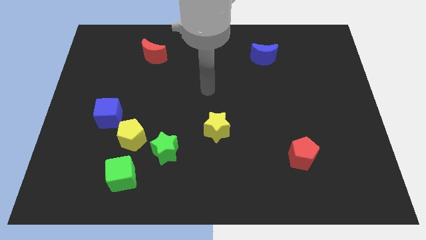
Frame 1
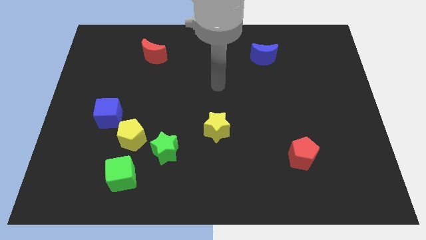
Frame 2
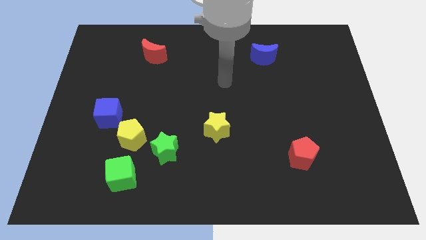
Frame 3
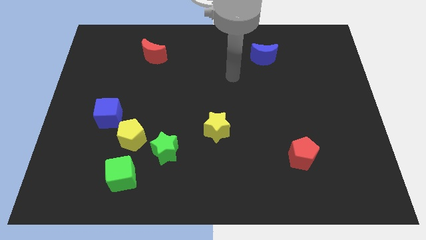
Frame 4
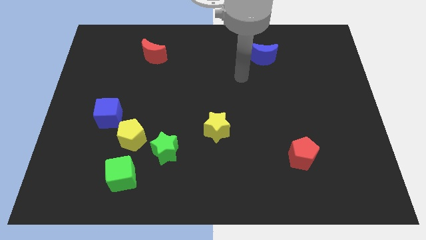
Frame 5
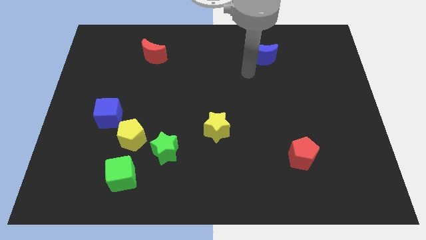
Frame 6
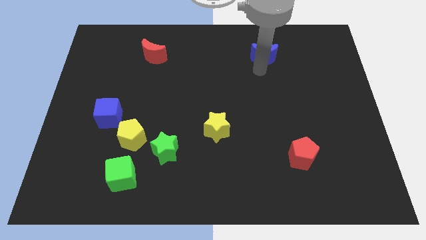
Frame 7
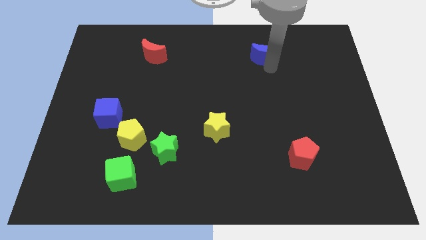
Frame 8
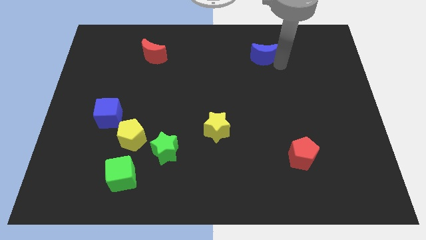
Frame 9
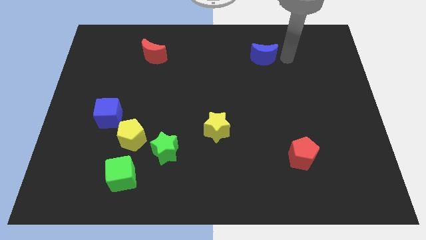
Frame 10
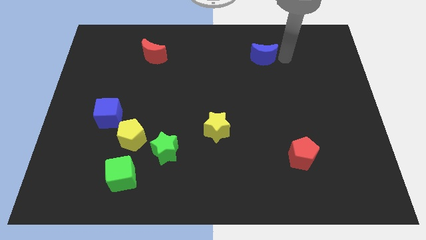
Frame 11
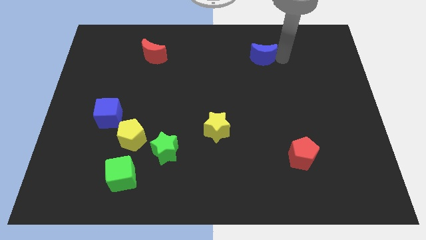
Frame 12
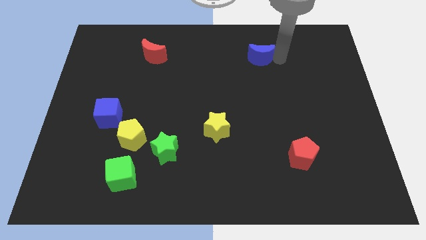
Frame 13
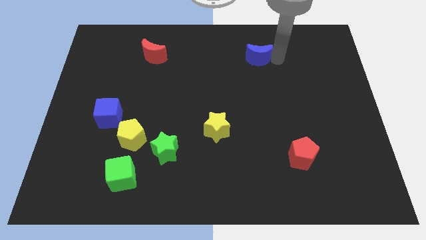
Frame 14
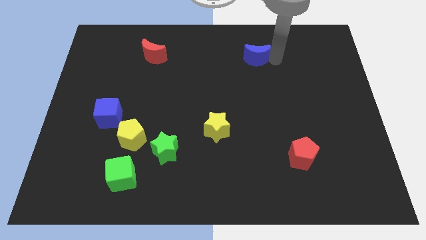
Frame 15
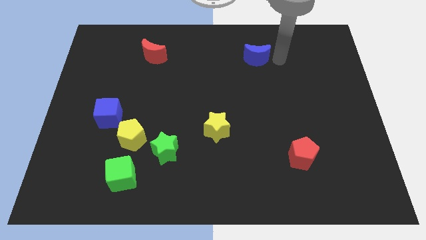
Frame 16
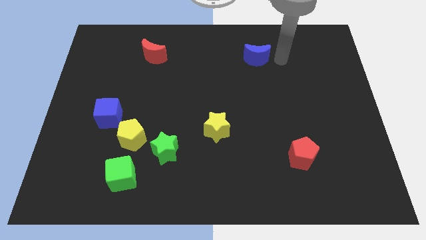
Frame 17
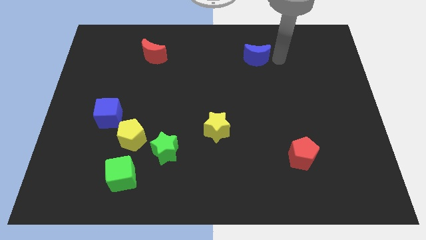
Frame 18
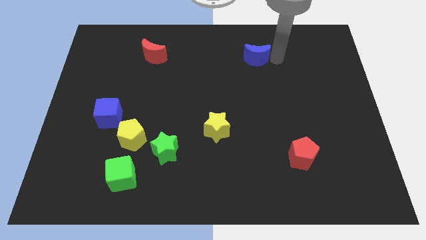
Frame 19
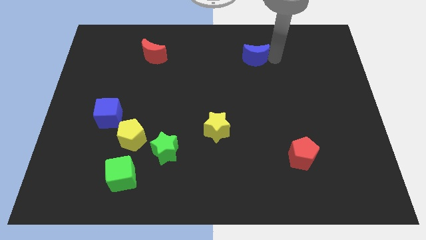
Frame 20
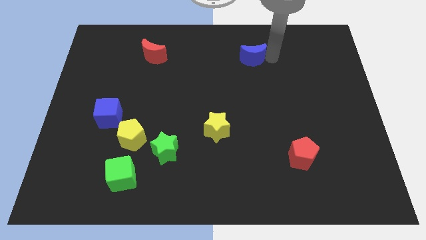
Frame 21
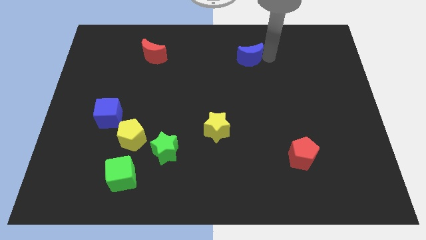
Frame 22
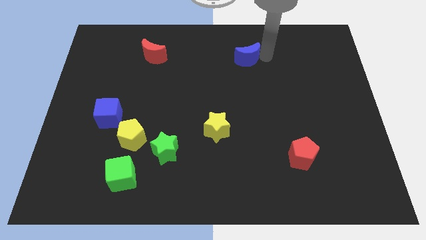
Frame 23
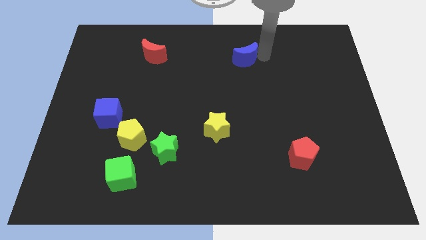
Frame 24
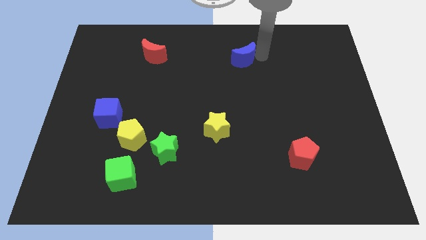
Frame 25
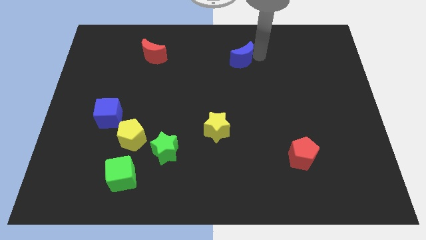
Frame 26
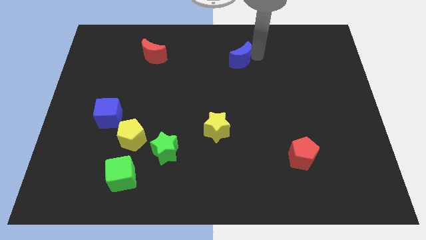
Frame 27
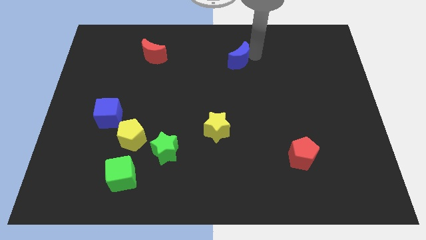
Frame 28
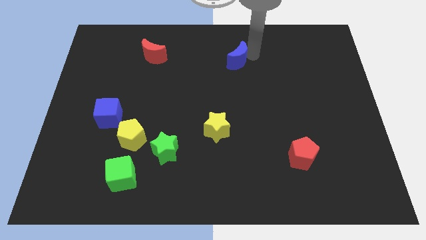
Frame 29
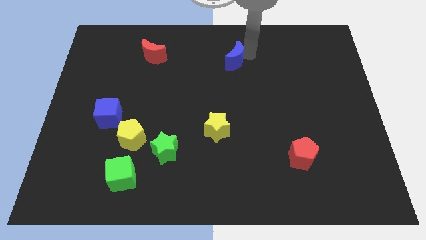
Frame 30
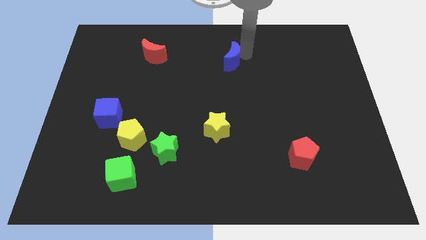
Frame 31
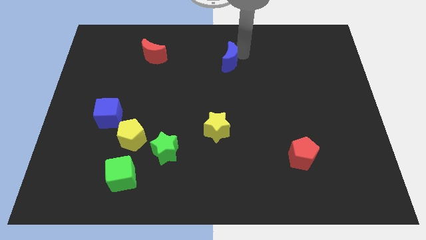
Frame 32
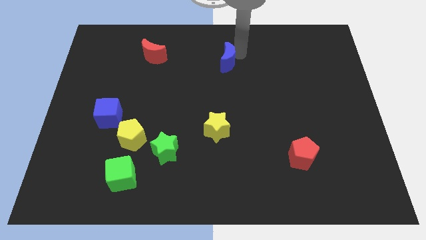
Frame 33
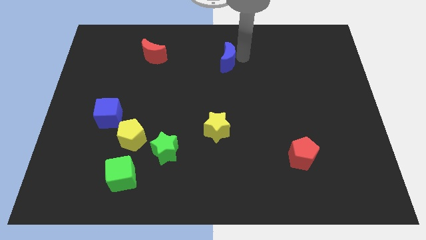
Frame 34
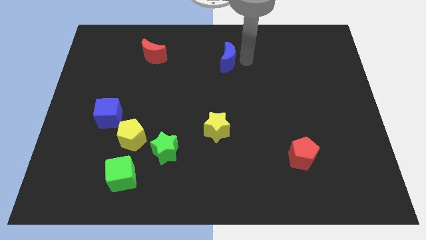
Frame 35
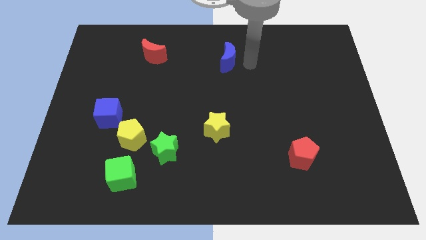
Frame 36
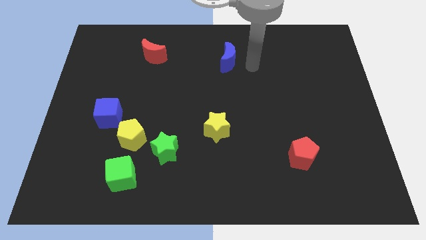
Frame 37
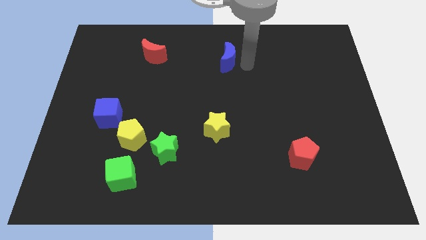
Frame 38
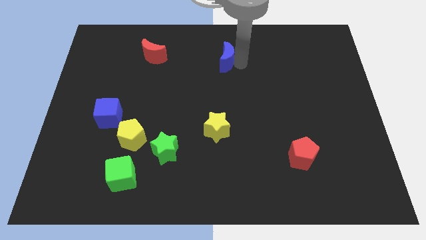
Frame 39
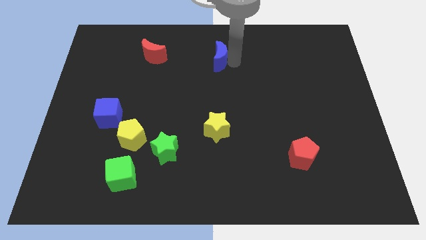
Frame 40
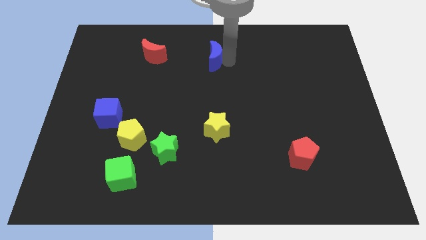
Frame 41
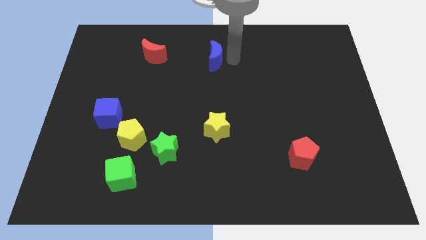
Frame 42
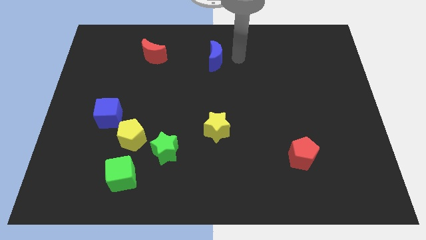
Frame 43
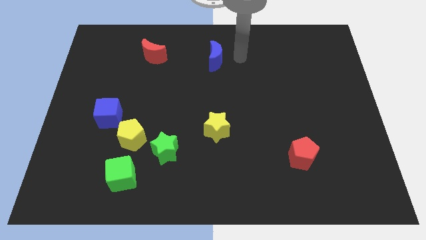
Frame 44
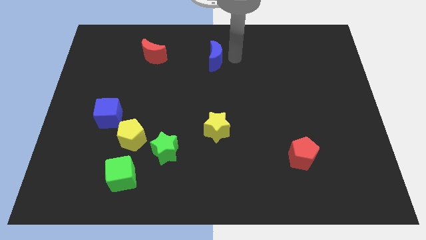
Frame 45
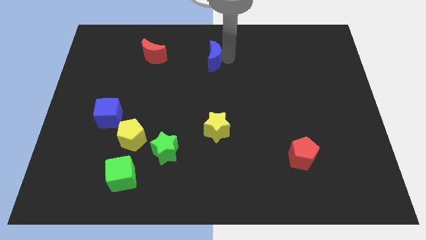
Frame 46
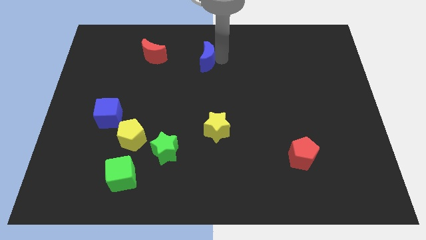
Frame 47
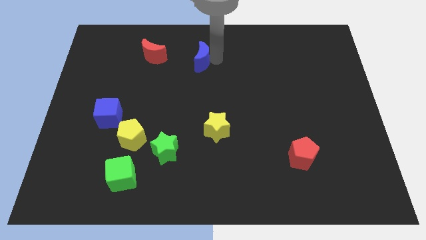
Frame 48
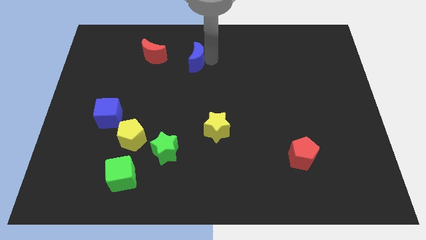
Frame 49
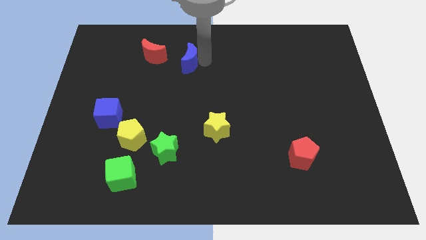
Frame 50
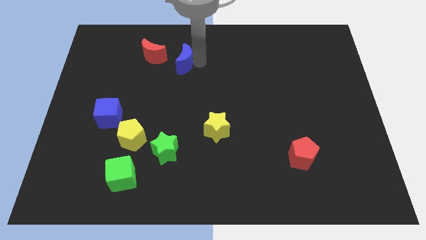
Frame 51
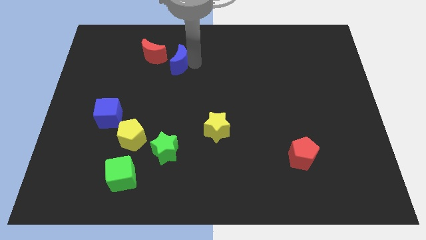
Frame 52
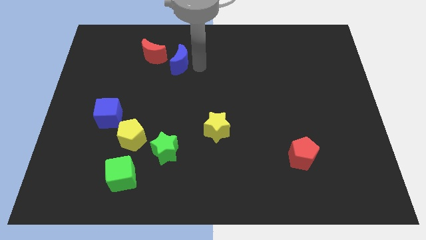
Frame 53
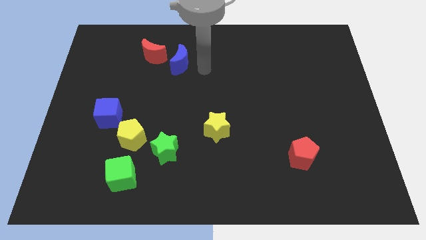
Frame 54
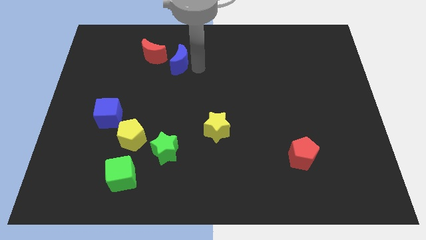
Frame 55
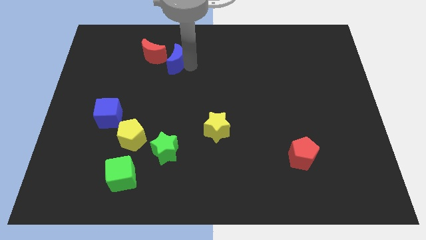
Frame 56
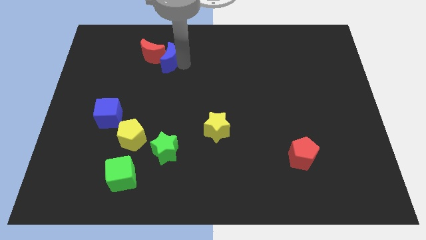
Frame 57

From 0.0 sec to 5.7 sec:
put the blue moon next to the red moon

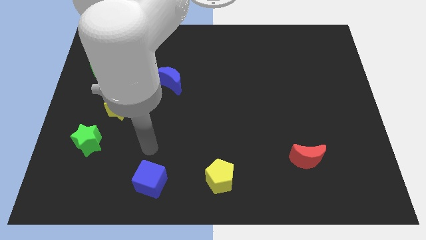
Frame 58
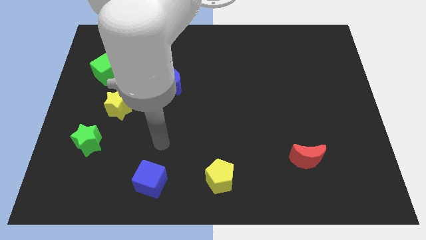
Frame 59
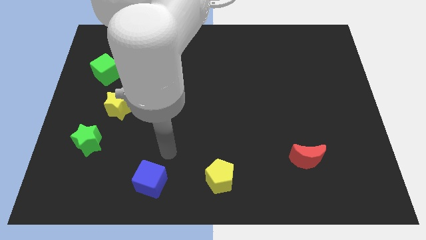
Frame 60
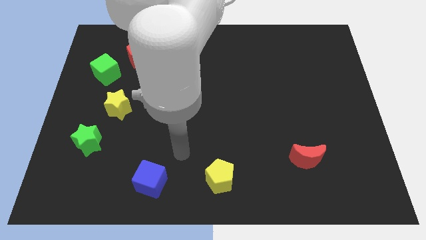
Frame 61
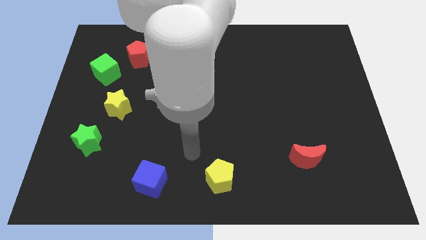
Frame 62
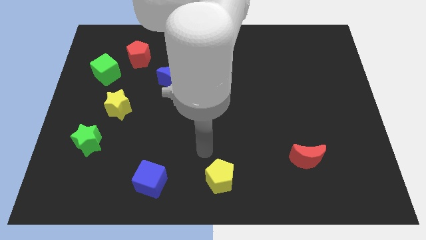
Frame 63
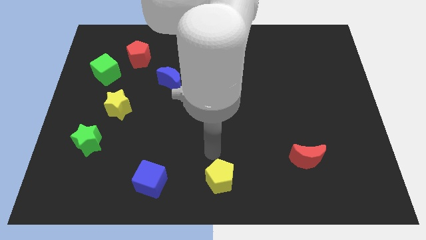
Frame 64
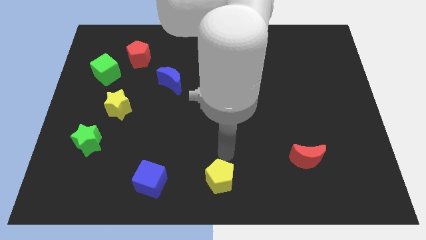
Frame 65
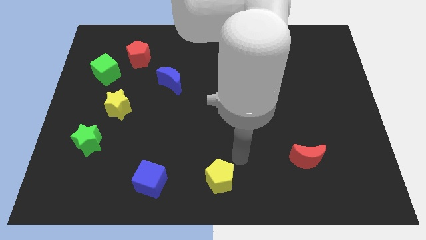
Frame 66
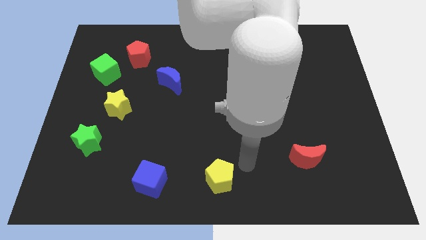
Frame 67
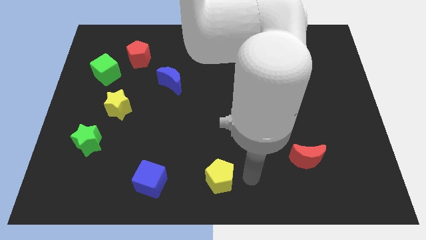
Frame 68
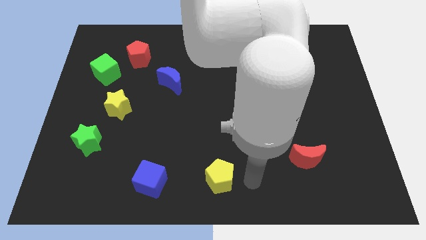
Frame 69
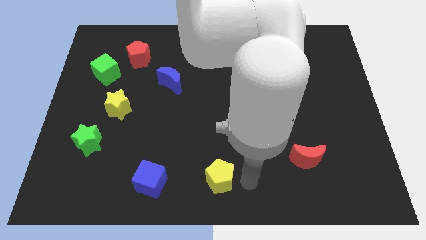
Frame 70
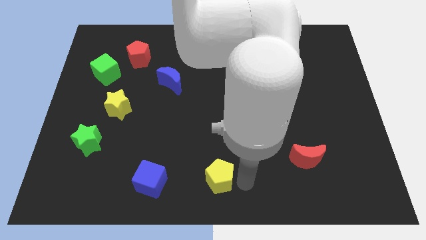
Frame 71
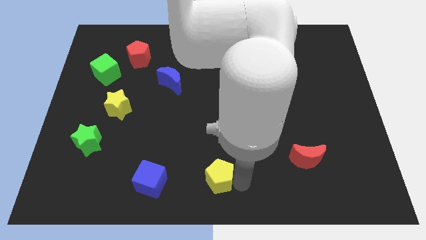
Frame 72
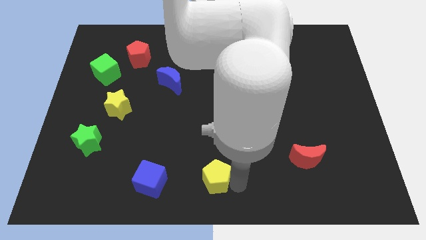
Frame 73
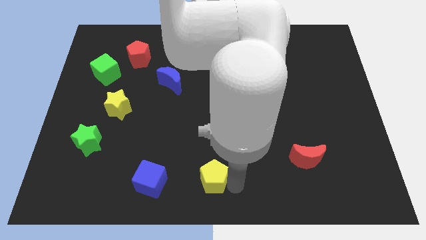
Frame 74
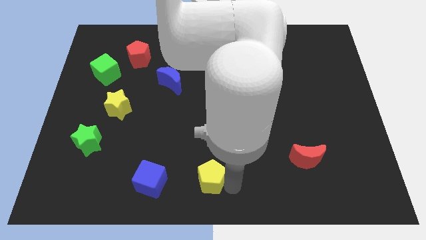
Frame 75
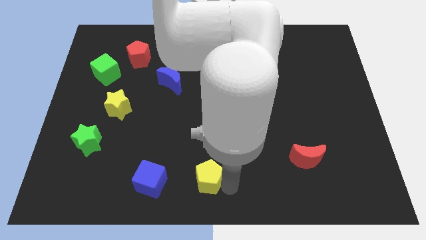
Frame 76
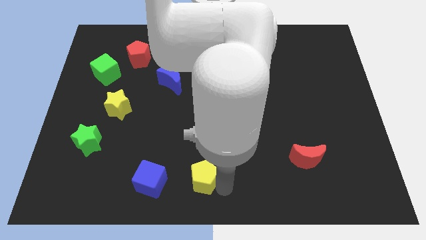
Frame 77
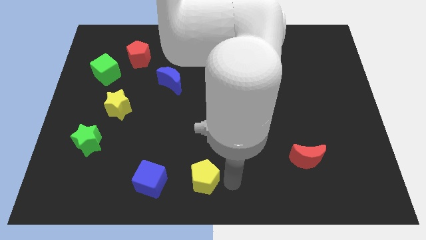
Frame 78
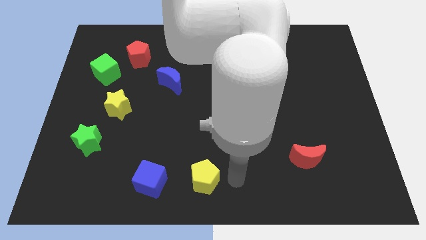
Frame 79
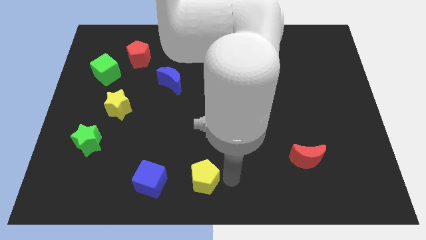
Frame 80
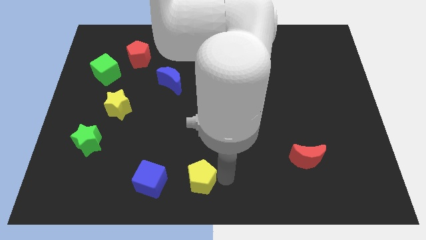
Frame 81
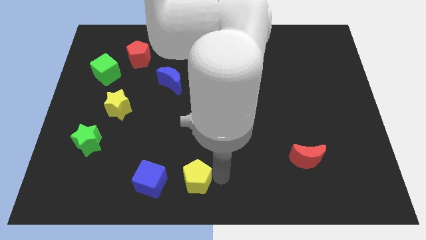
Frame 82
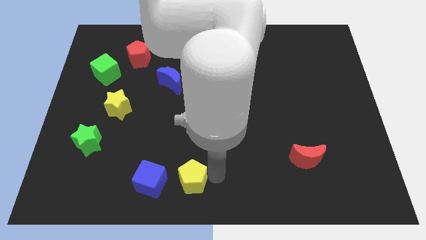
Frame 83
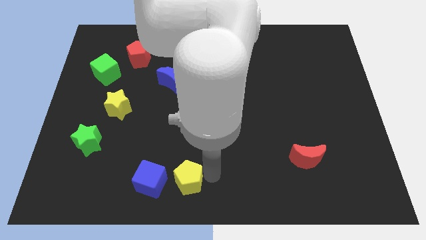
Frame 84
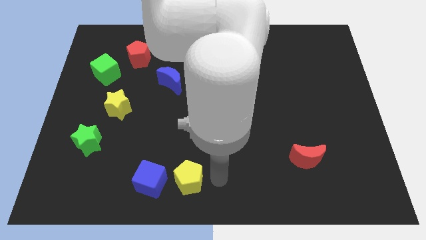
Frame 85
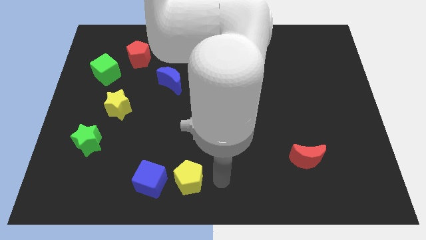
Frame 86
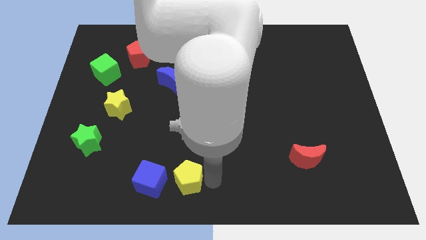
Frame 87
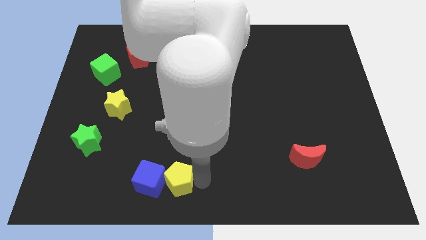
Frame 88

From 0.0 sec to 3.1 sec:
push the yellow pentagon to the blue cube
